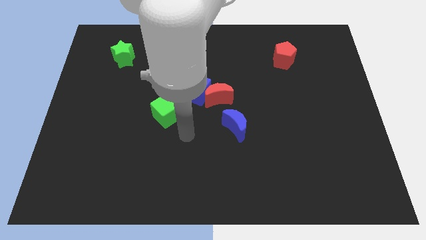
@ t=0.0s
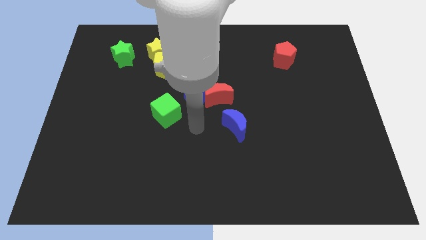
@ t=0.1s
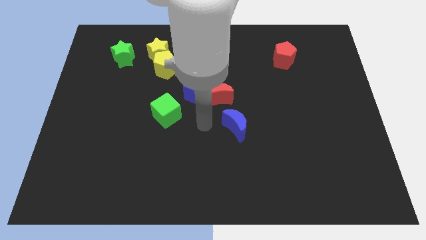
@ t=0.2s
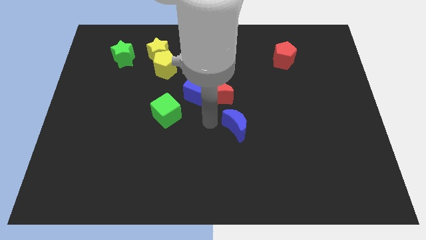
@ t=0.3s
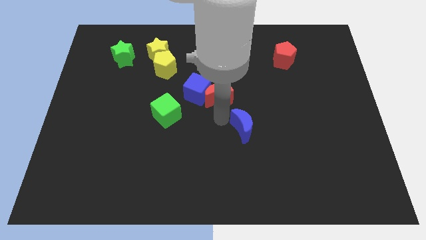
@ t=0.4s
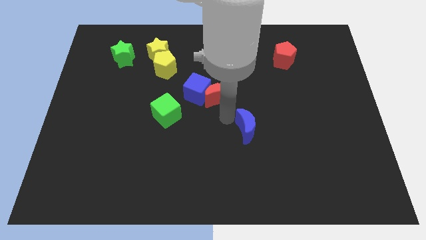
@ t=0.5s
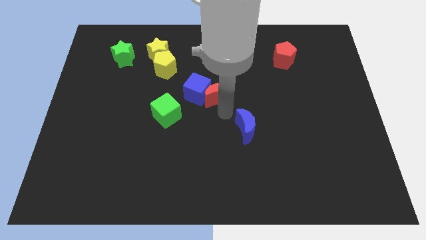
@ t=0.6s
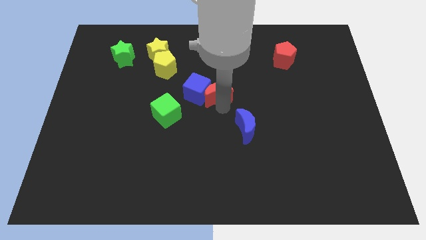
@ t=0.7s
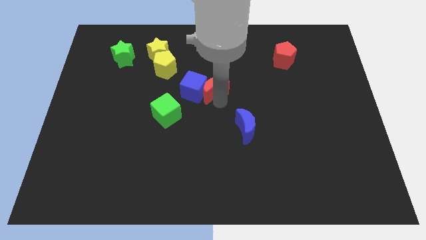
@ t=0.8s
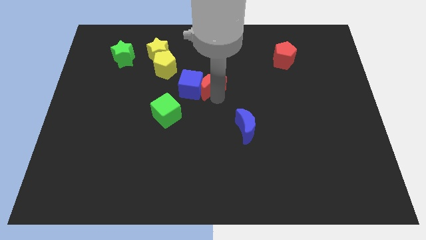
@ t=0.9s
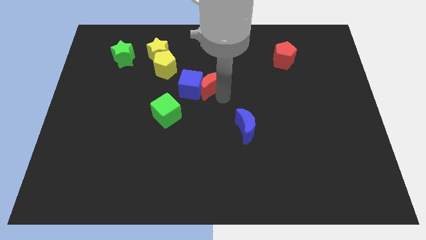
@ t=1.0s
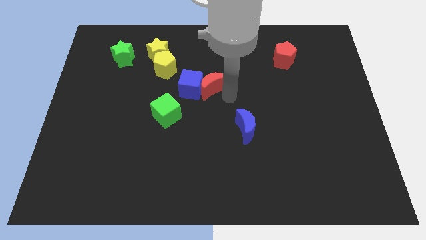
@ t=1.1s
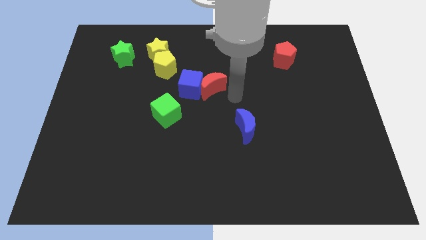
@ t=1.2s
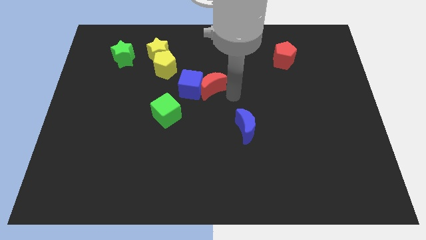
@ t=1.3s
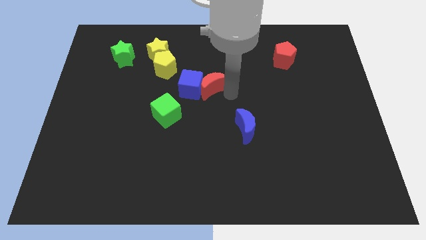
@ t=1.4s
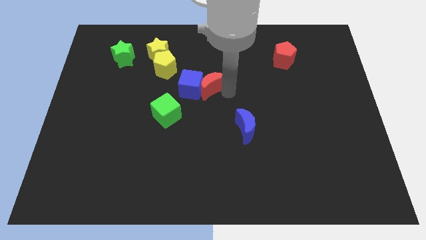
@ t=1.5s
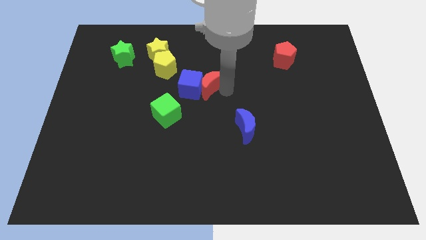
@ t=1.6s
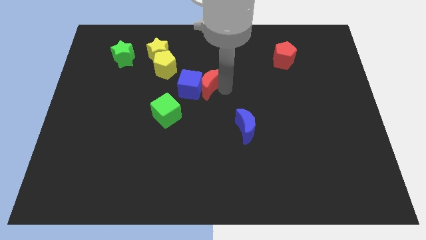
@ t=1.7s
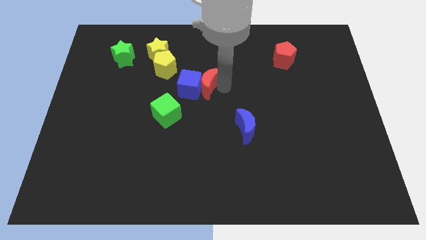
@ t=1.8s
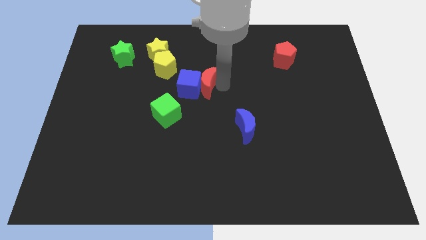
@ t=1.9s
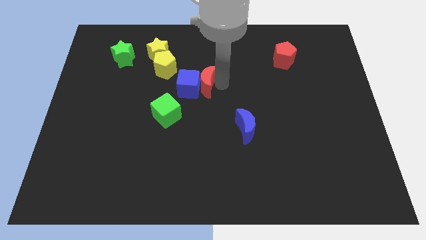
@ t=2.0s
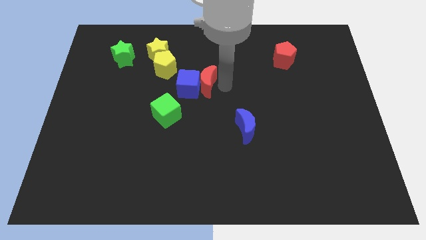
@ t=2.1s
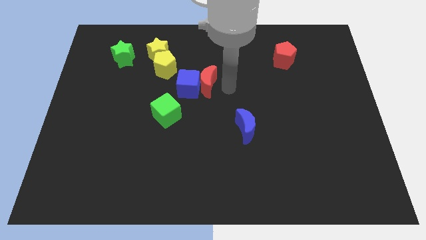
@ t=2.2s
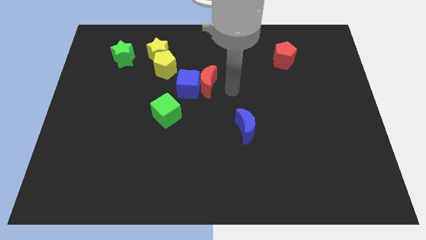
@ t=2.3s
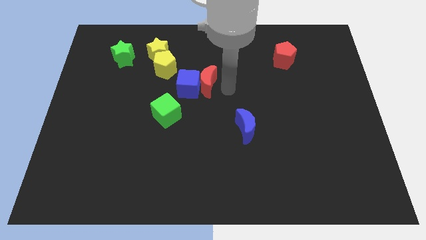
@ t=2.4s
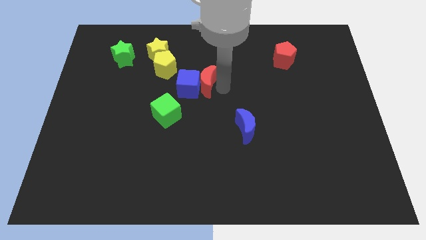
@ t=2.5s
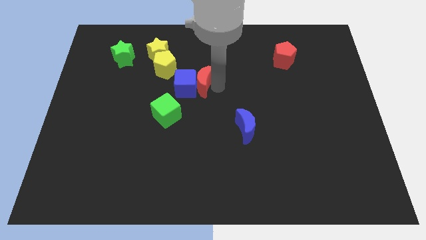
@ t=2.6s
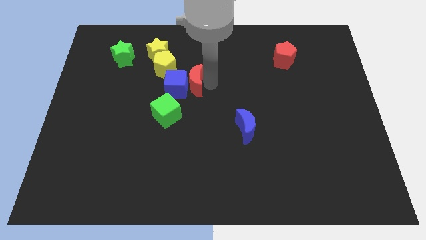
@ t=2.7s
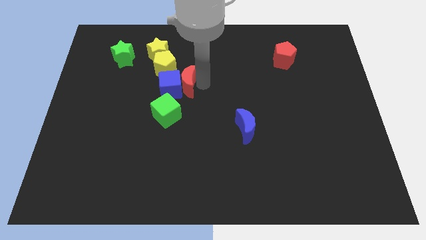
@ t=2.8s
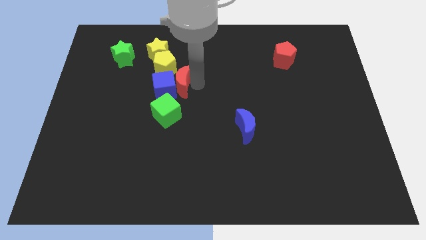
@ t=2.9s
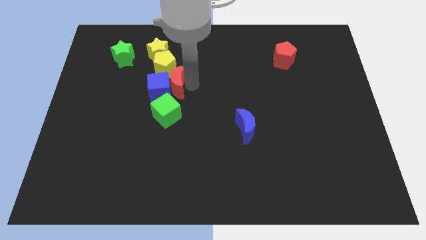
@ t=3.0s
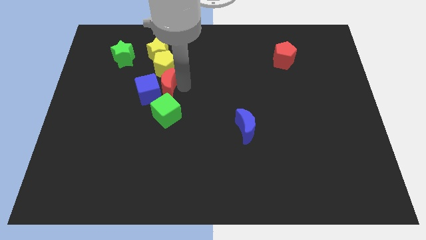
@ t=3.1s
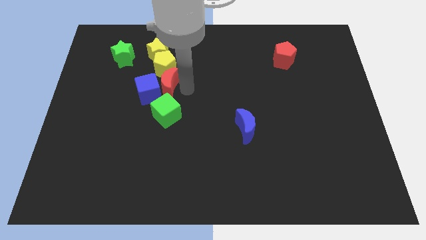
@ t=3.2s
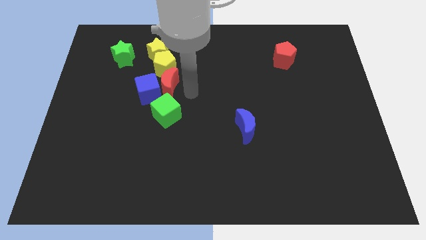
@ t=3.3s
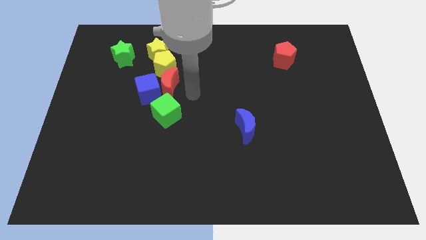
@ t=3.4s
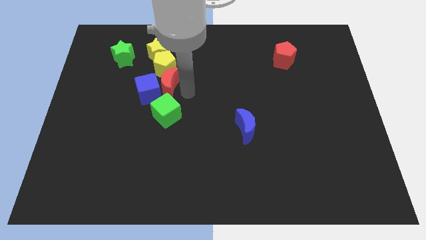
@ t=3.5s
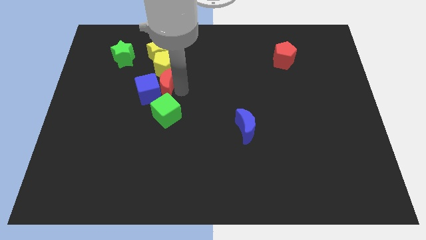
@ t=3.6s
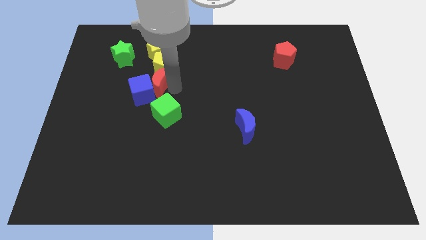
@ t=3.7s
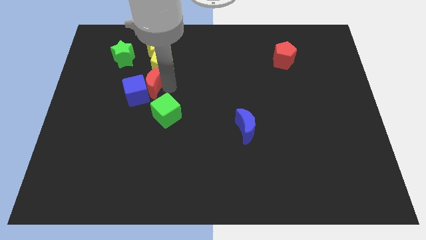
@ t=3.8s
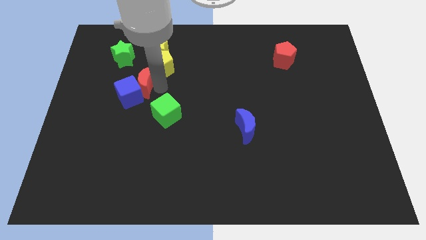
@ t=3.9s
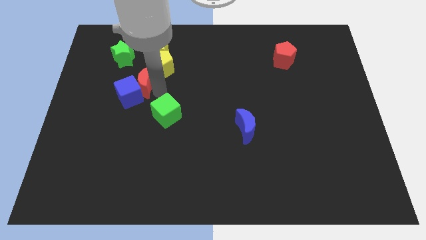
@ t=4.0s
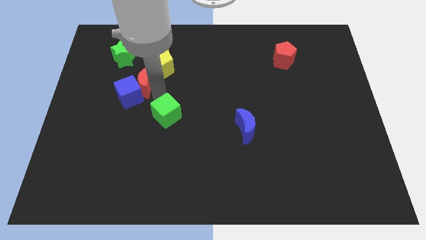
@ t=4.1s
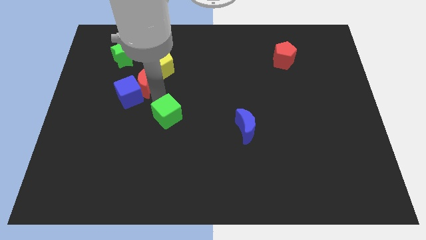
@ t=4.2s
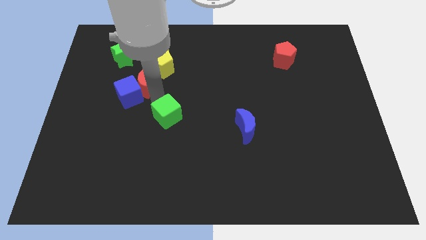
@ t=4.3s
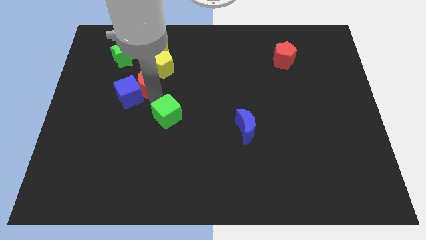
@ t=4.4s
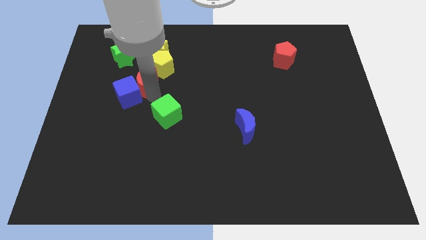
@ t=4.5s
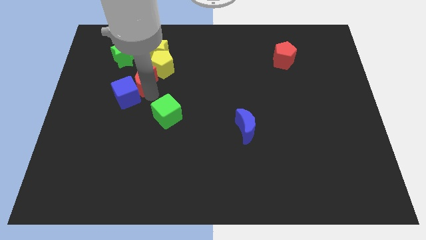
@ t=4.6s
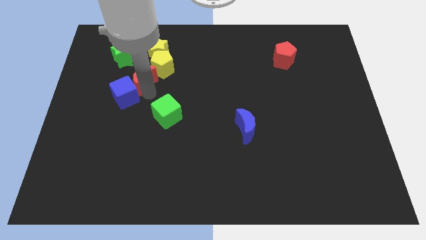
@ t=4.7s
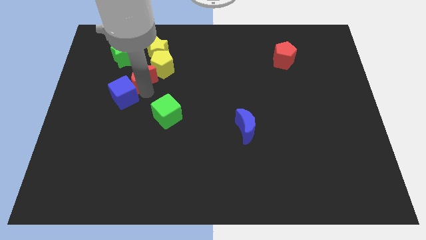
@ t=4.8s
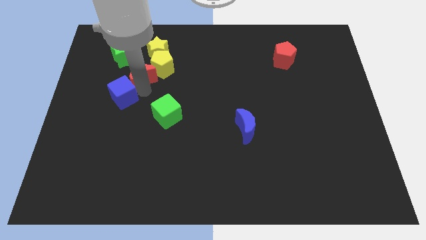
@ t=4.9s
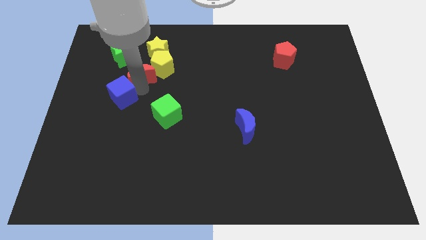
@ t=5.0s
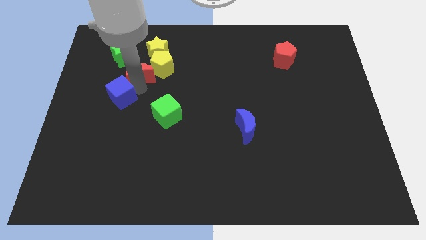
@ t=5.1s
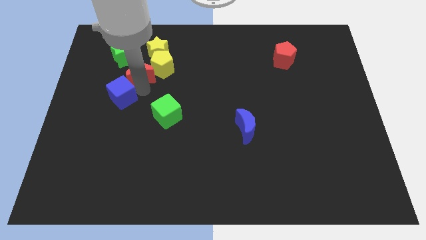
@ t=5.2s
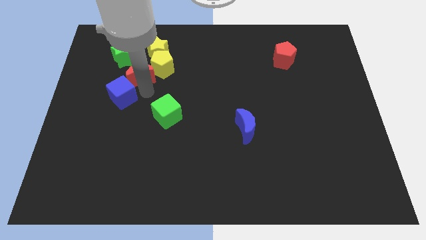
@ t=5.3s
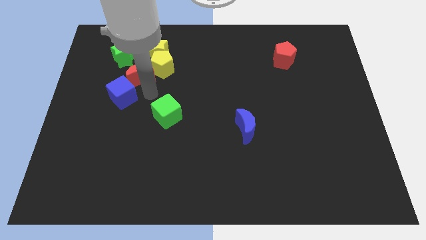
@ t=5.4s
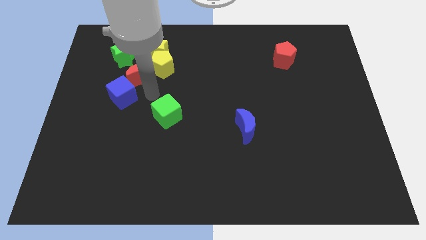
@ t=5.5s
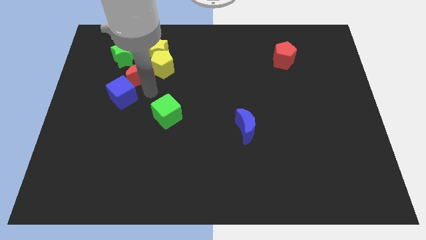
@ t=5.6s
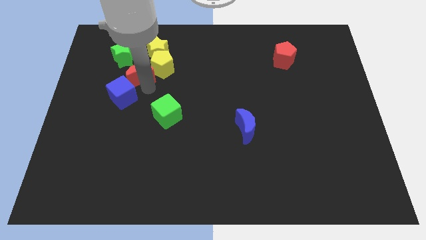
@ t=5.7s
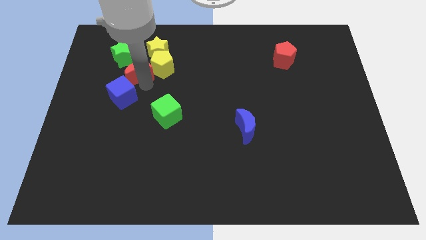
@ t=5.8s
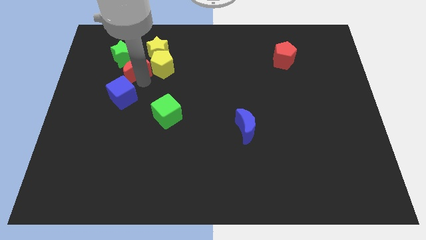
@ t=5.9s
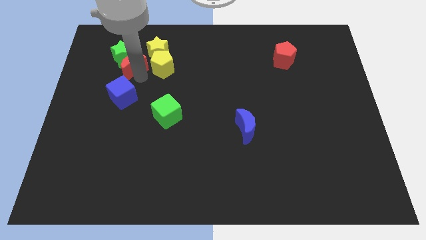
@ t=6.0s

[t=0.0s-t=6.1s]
move the red moon to the green star
